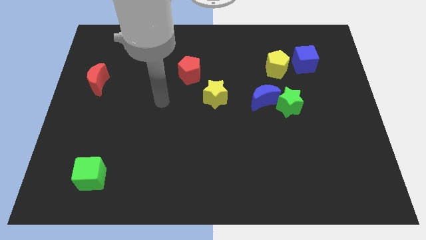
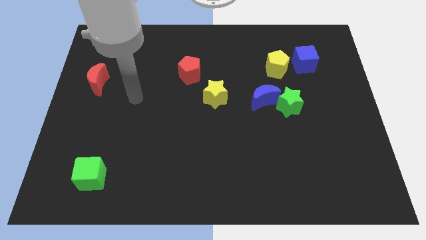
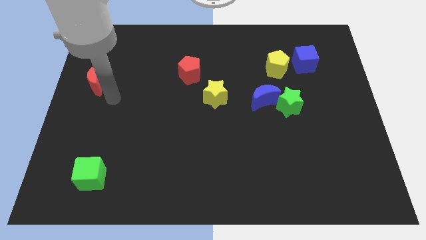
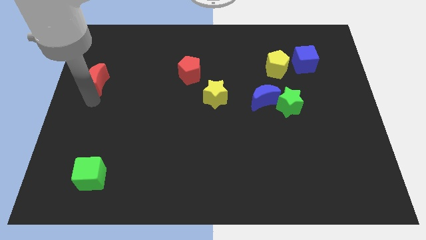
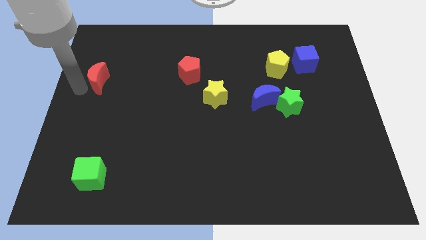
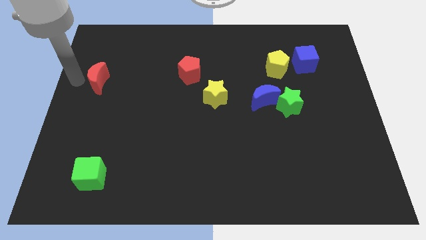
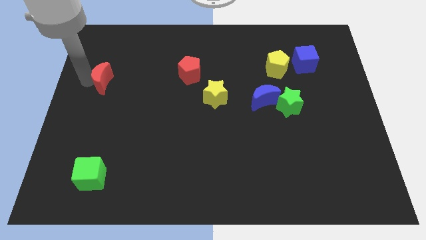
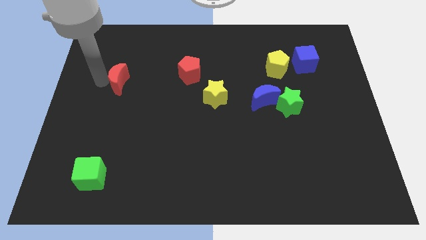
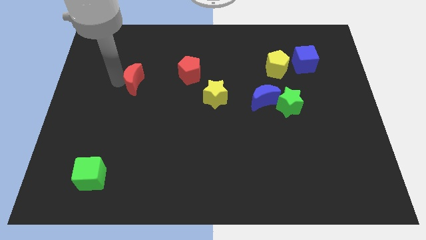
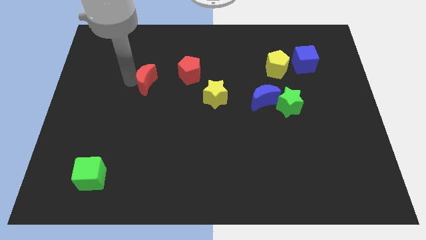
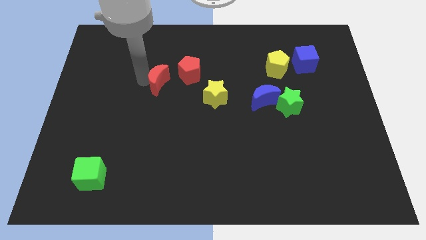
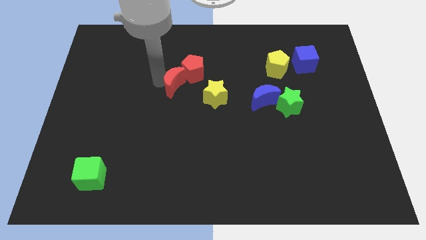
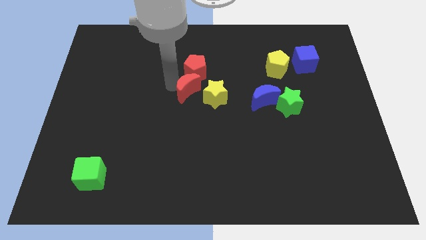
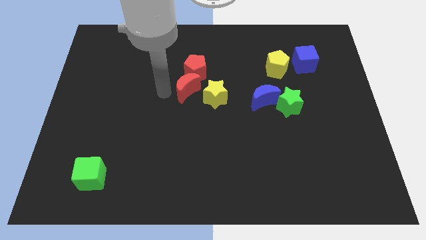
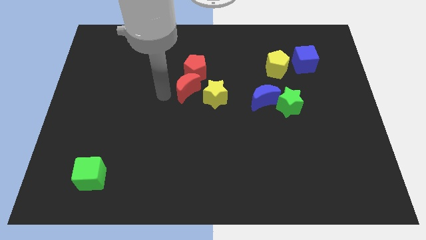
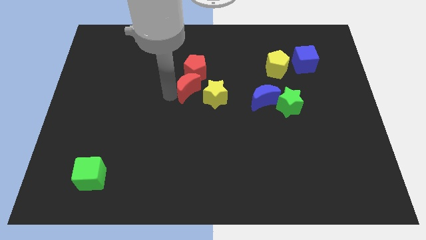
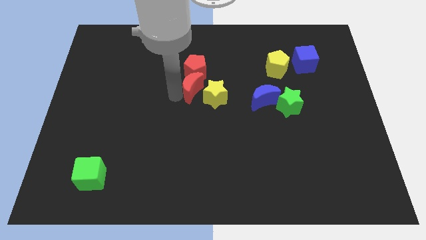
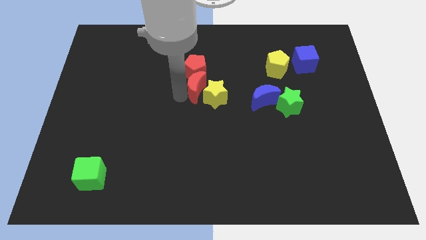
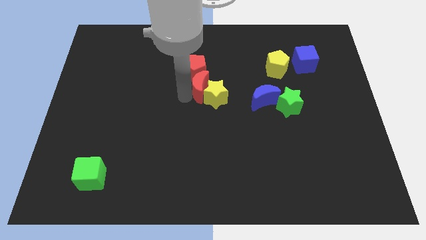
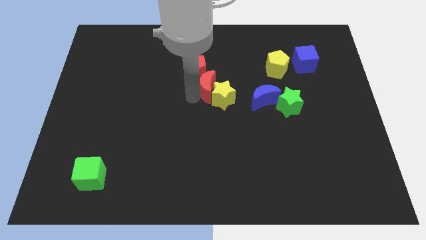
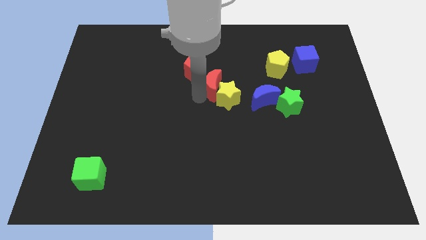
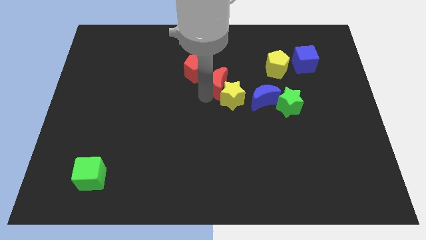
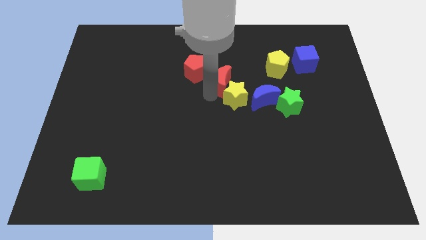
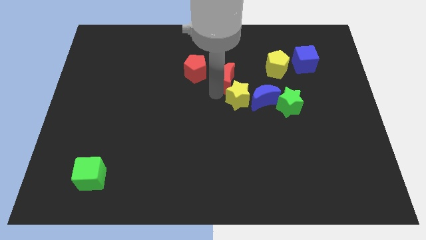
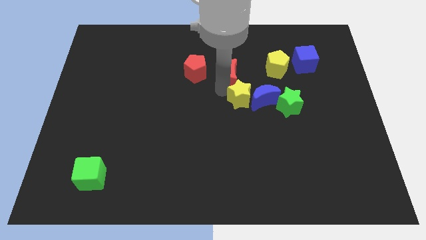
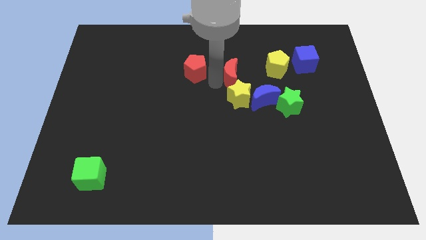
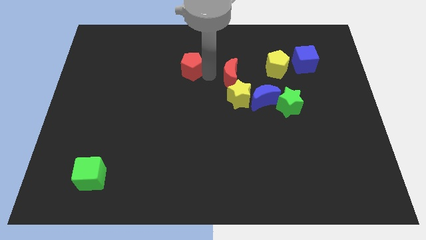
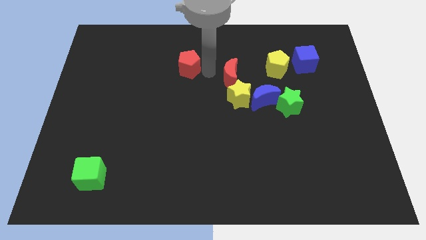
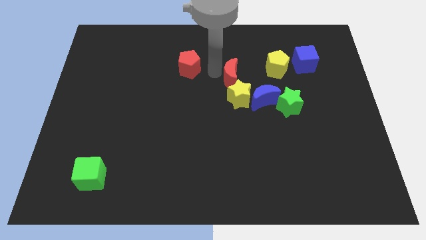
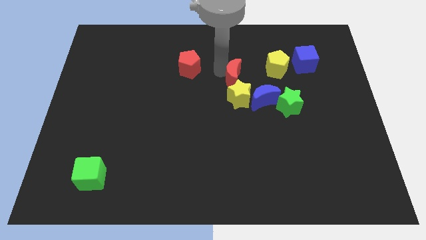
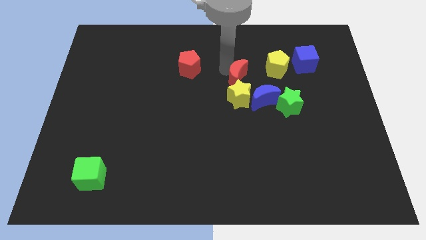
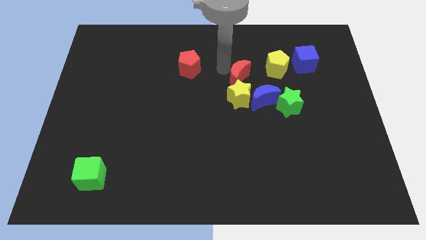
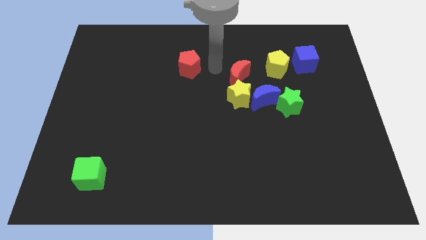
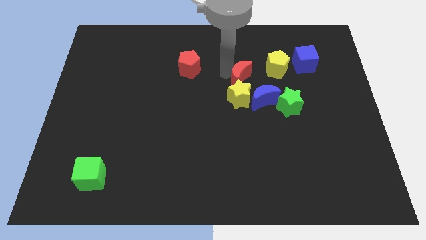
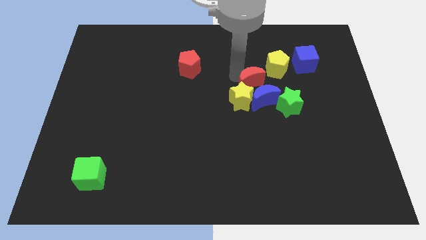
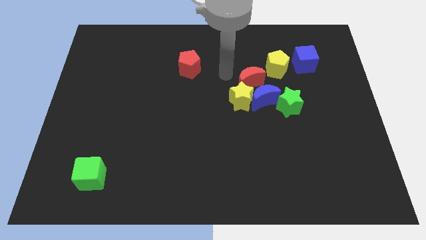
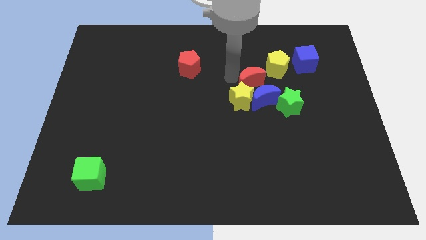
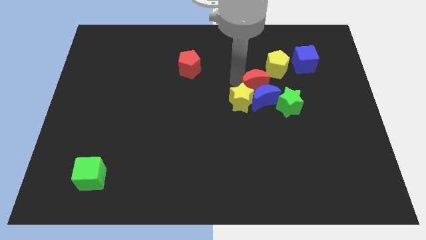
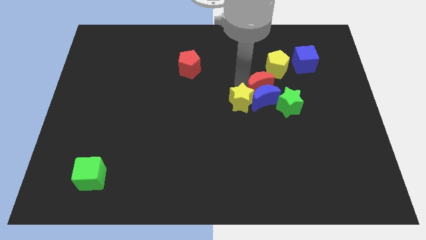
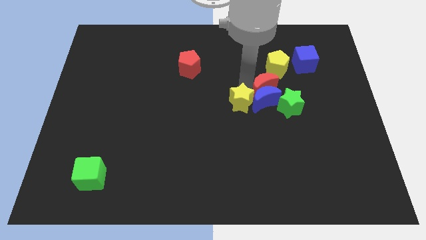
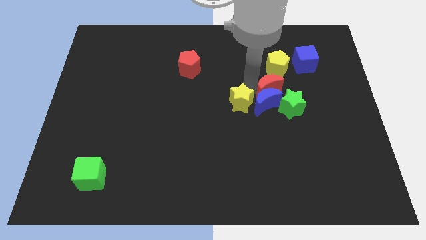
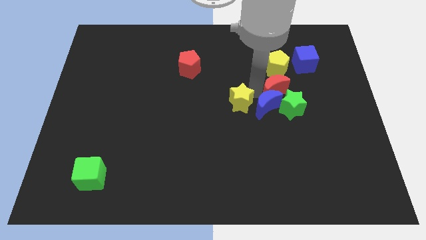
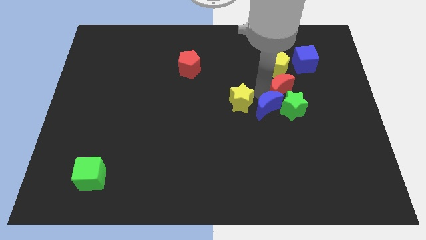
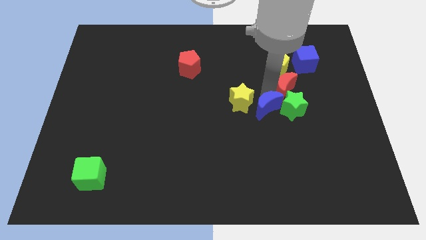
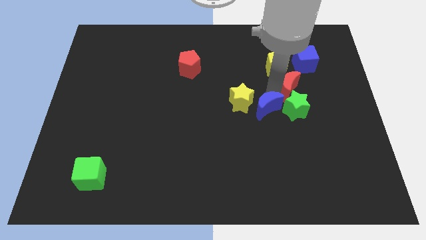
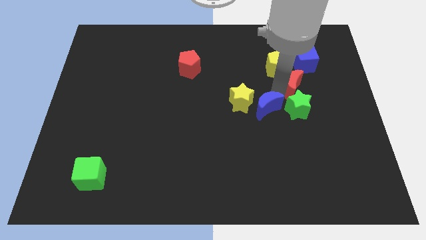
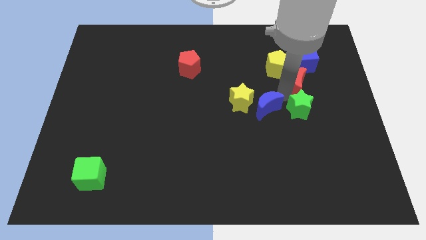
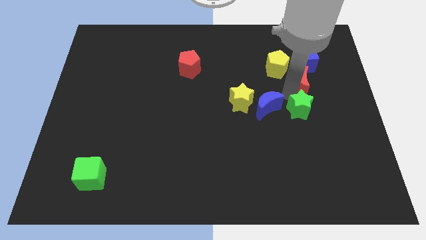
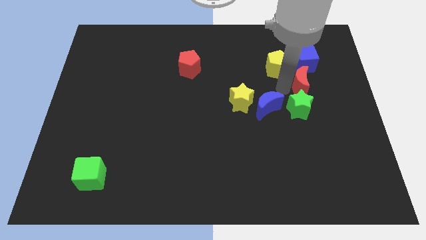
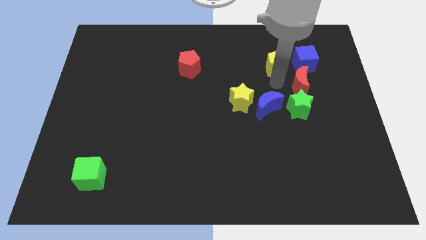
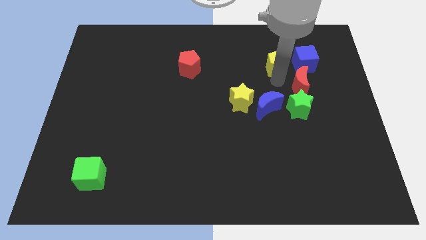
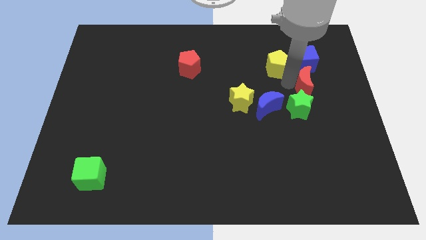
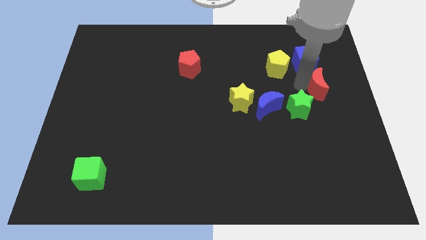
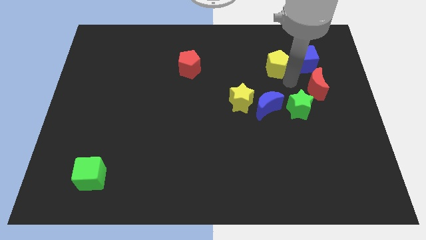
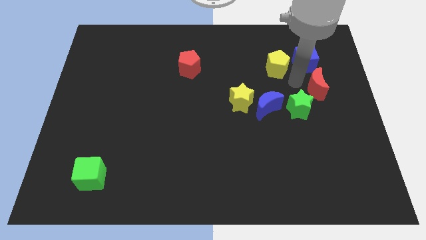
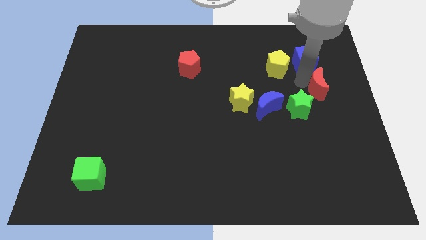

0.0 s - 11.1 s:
put the red moon to the right side of the board
